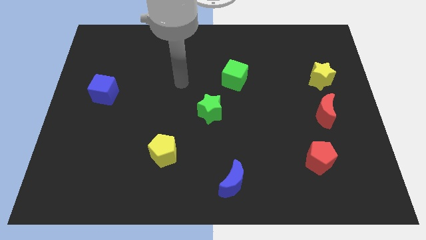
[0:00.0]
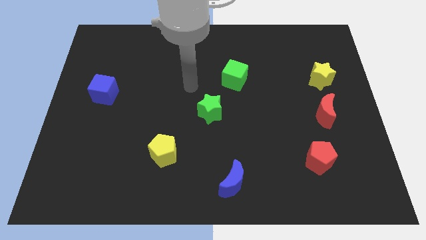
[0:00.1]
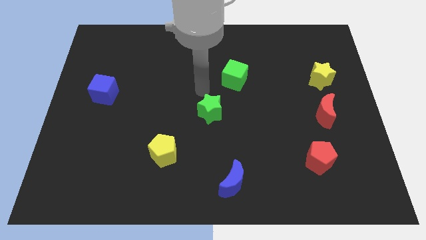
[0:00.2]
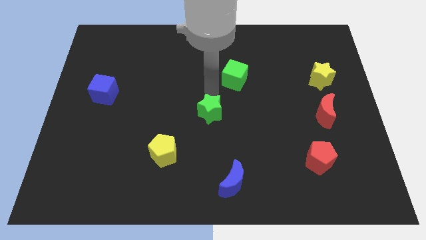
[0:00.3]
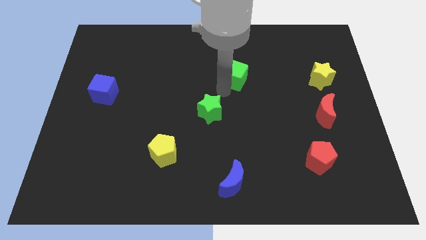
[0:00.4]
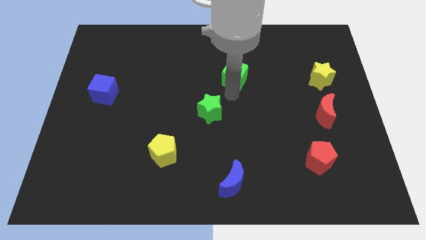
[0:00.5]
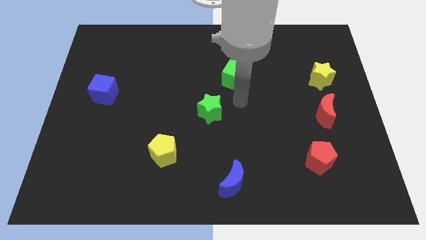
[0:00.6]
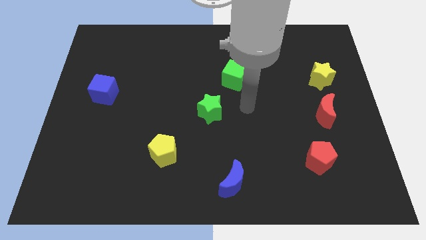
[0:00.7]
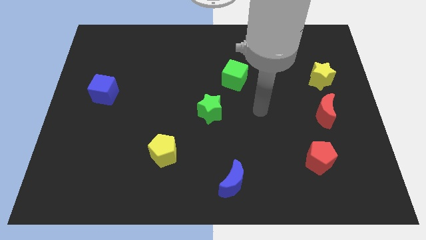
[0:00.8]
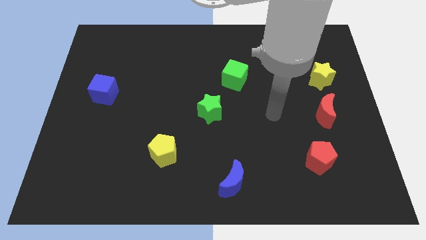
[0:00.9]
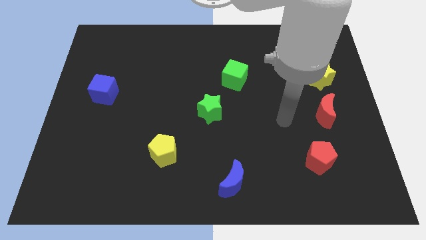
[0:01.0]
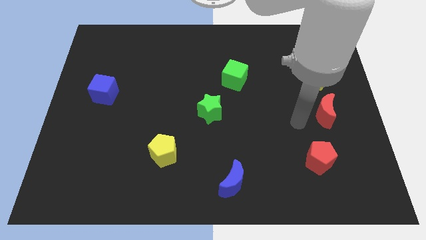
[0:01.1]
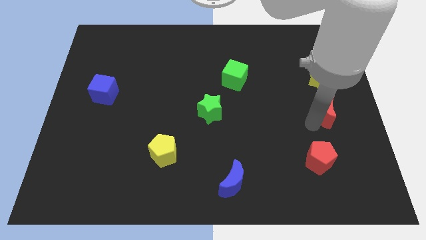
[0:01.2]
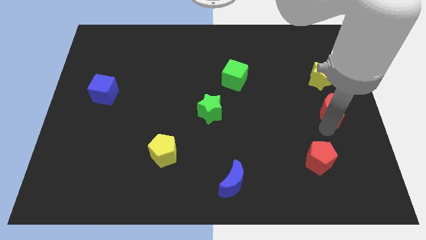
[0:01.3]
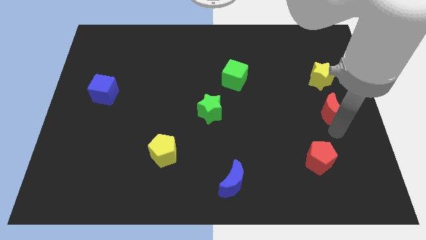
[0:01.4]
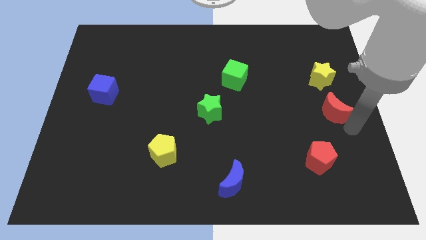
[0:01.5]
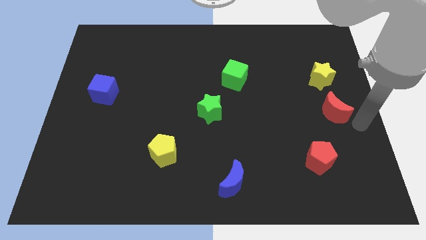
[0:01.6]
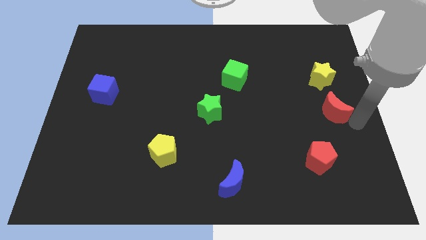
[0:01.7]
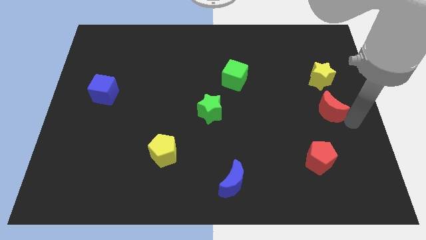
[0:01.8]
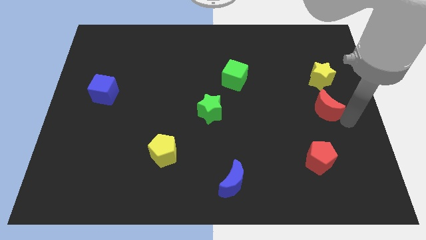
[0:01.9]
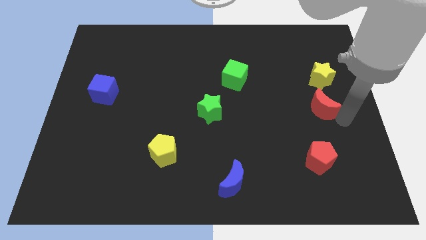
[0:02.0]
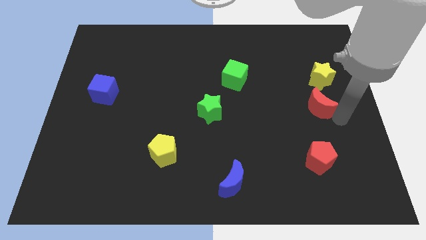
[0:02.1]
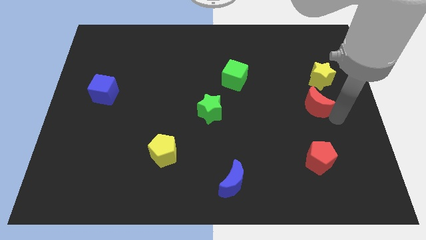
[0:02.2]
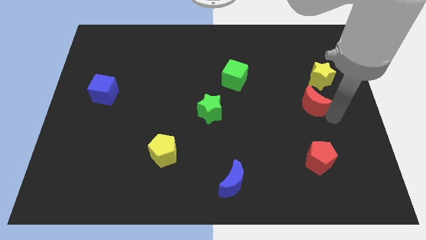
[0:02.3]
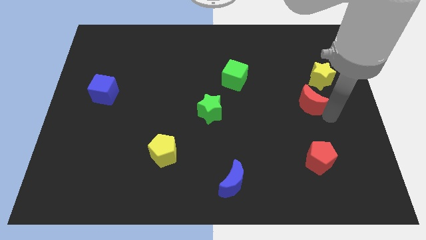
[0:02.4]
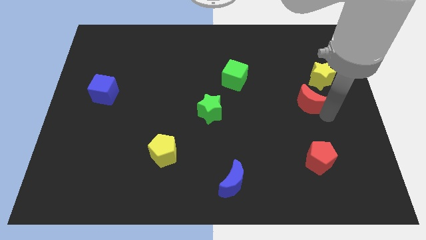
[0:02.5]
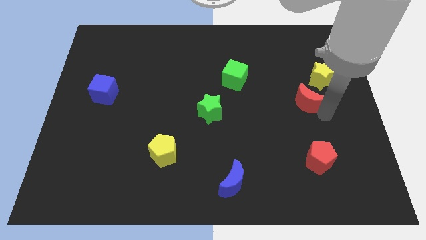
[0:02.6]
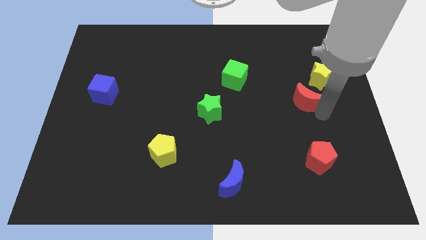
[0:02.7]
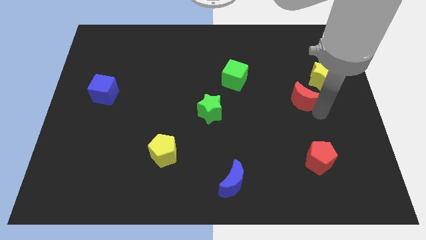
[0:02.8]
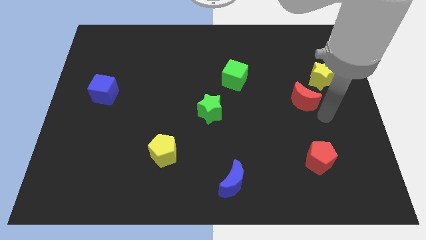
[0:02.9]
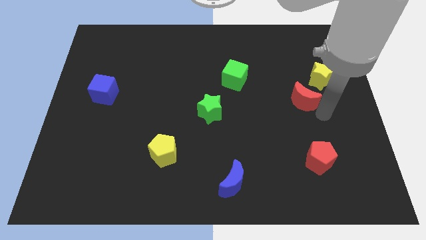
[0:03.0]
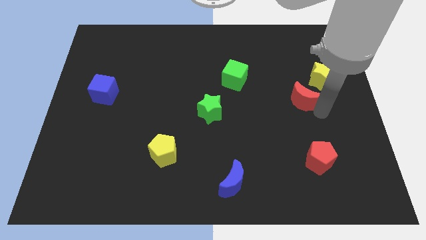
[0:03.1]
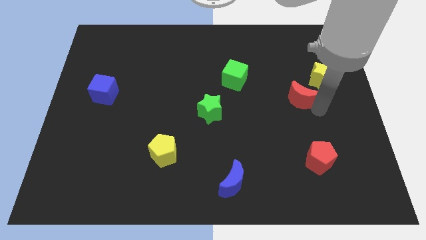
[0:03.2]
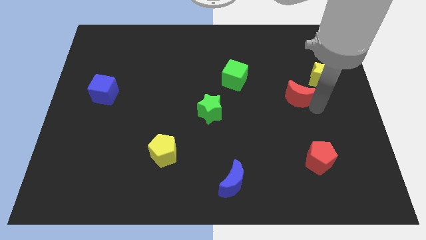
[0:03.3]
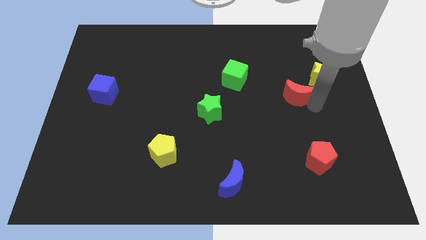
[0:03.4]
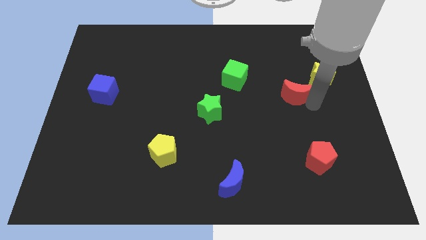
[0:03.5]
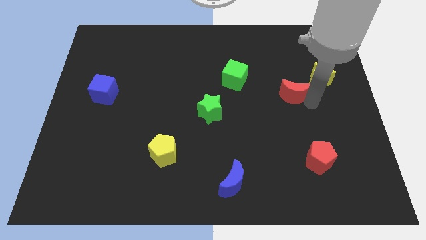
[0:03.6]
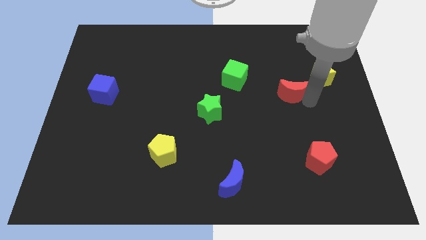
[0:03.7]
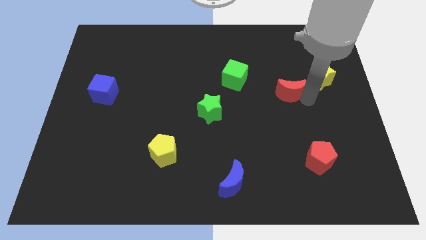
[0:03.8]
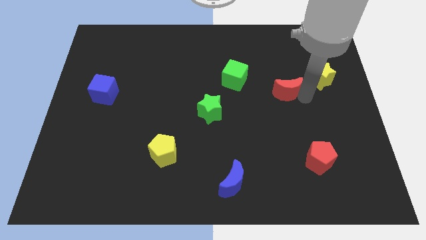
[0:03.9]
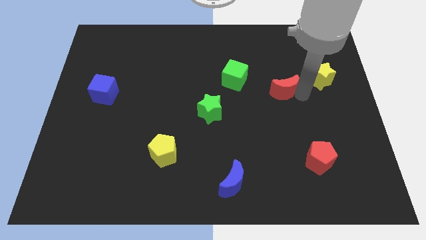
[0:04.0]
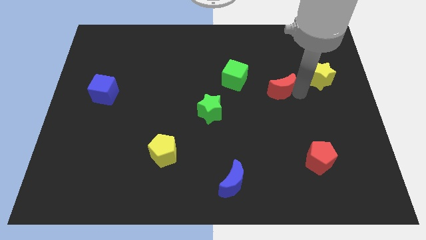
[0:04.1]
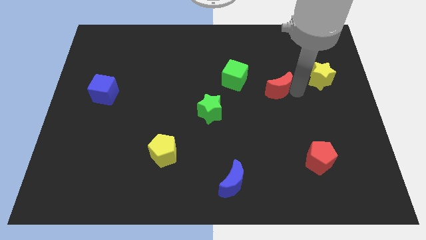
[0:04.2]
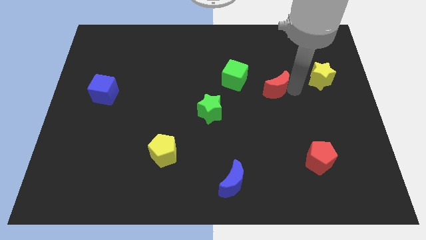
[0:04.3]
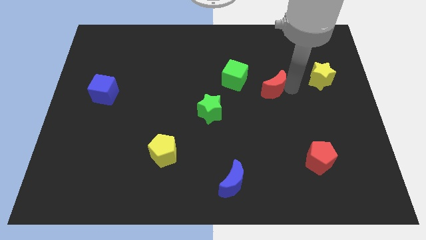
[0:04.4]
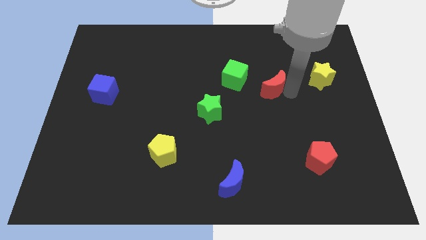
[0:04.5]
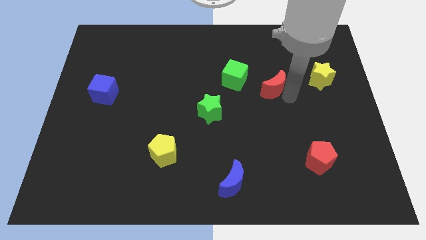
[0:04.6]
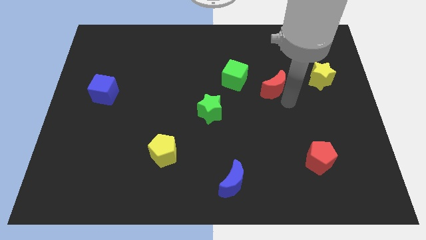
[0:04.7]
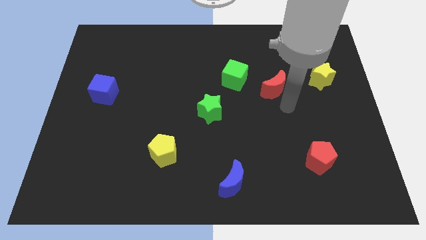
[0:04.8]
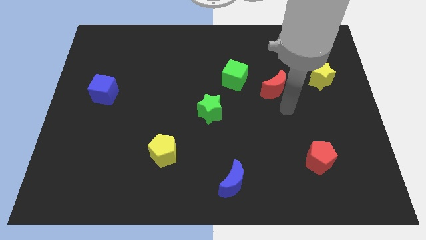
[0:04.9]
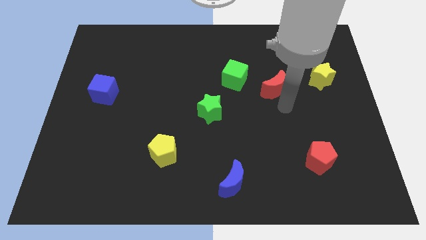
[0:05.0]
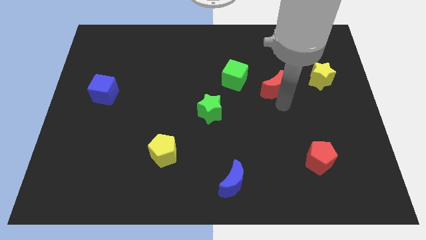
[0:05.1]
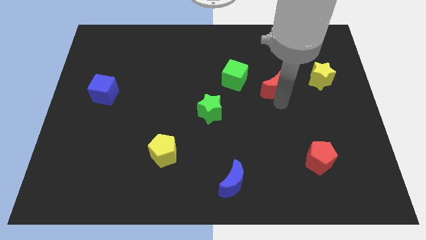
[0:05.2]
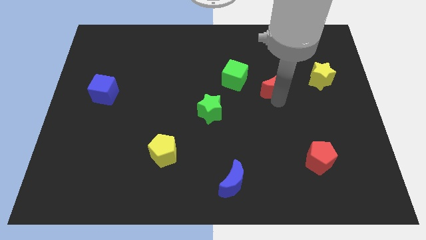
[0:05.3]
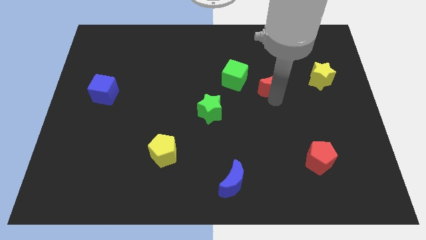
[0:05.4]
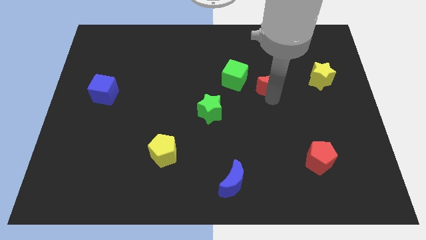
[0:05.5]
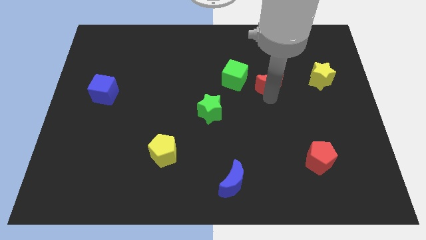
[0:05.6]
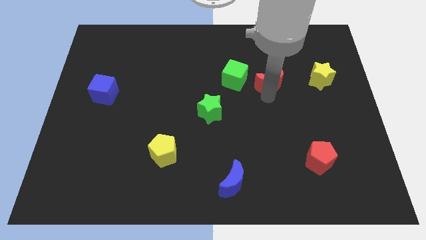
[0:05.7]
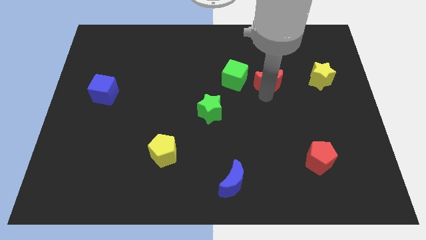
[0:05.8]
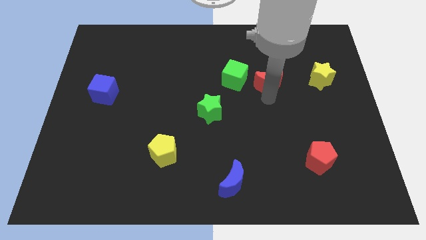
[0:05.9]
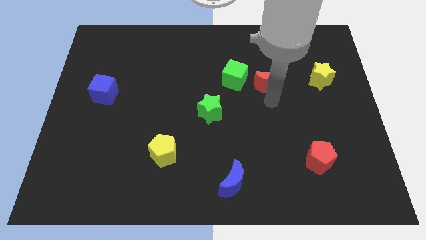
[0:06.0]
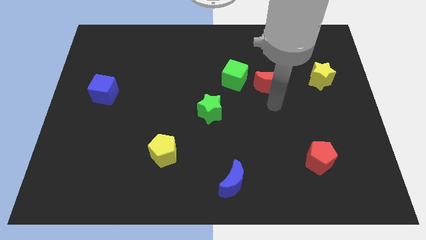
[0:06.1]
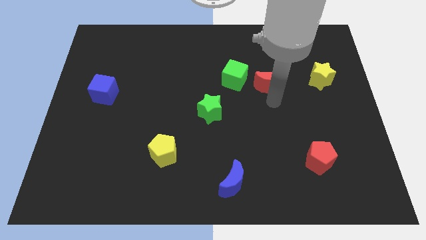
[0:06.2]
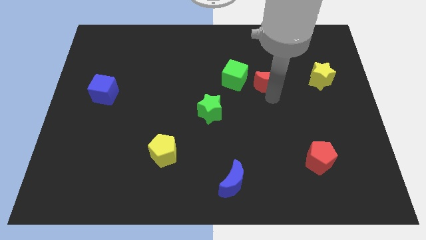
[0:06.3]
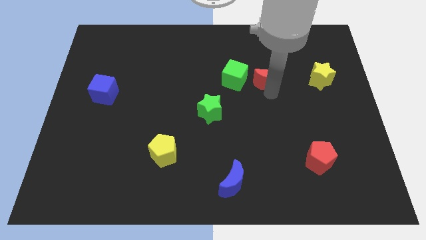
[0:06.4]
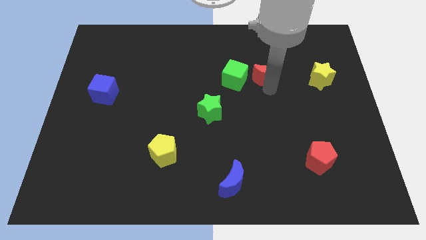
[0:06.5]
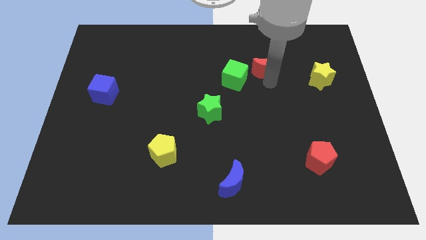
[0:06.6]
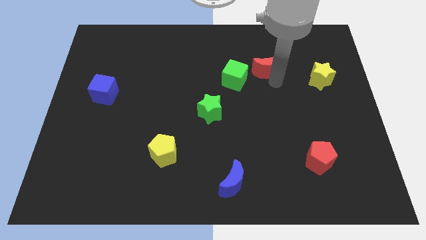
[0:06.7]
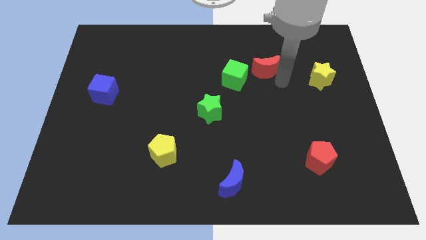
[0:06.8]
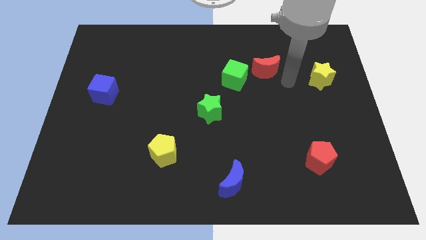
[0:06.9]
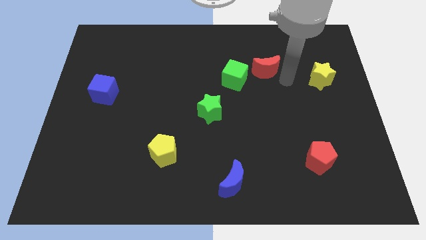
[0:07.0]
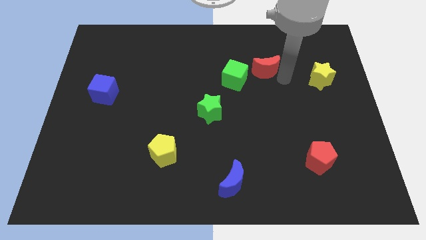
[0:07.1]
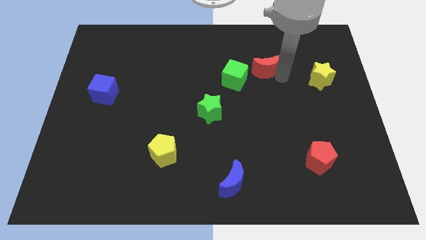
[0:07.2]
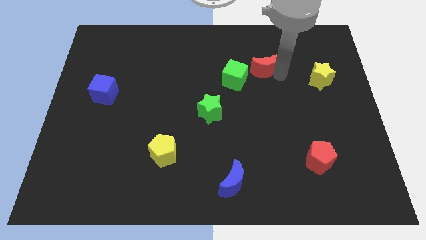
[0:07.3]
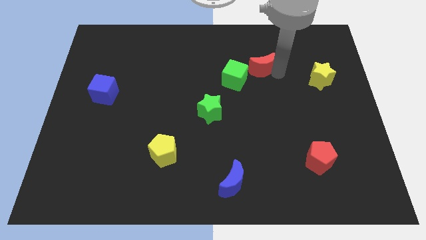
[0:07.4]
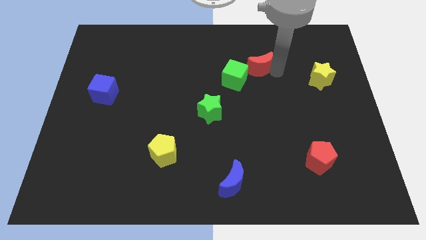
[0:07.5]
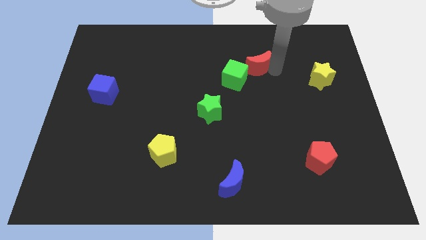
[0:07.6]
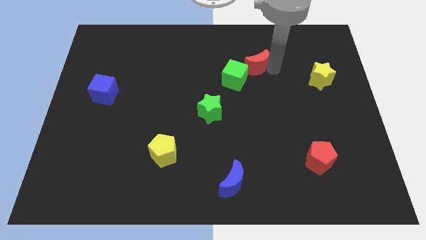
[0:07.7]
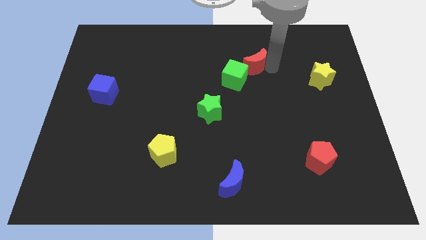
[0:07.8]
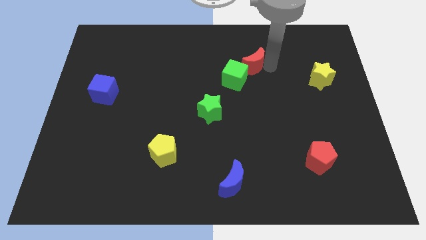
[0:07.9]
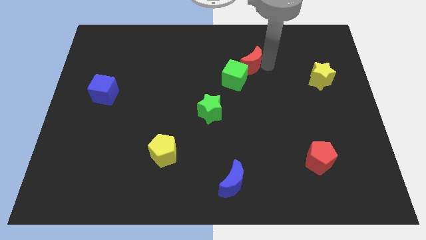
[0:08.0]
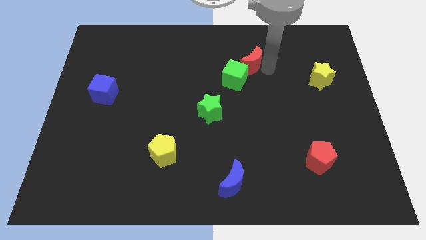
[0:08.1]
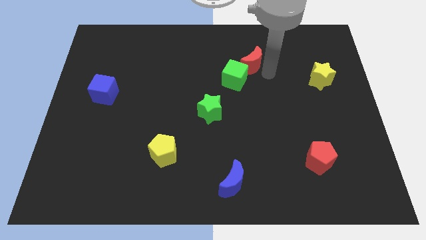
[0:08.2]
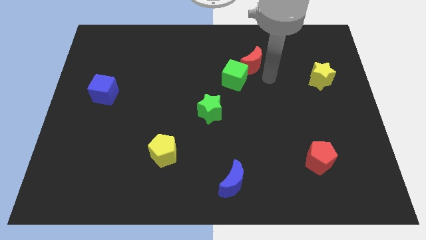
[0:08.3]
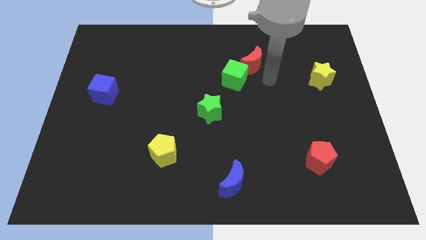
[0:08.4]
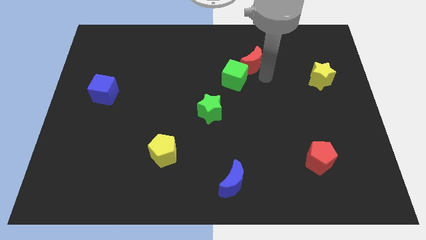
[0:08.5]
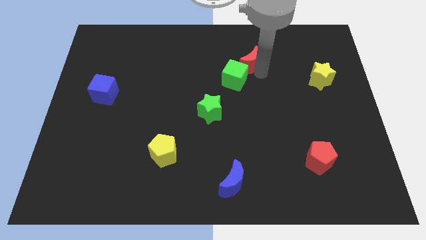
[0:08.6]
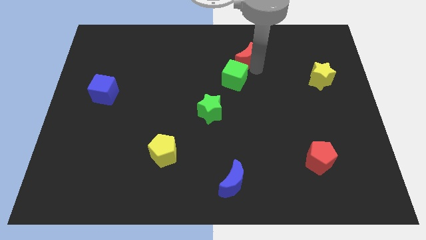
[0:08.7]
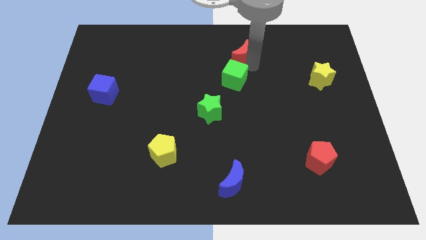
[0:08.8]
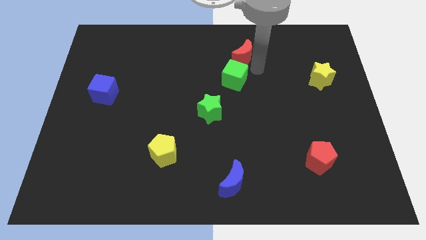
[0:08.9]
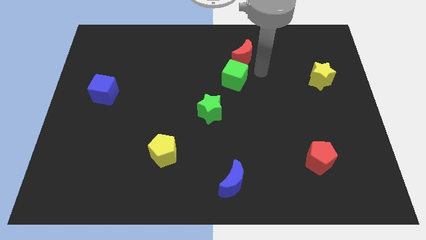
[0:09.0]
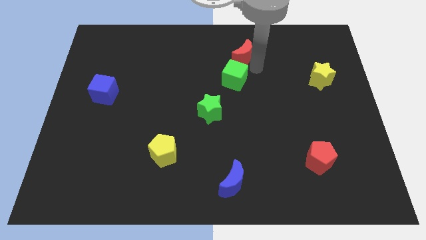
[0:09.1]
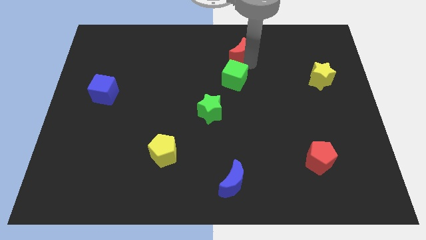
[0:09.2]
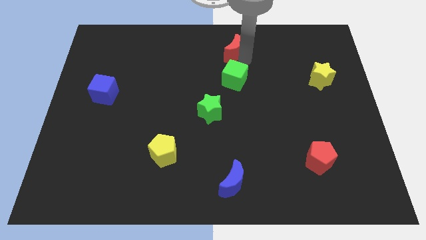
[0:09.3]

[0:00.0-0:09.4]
put the red moon to the top side
